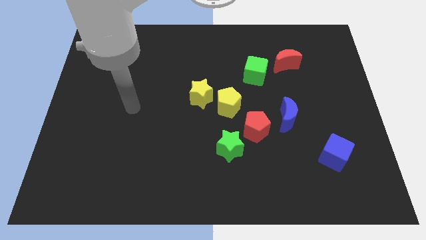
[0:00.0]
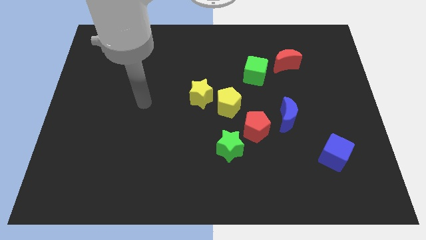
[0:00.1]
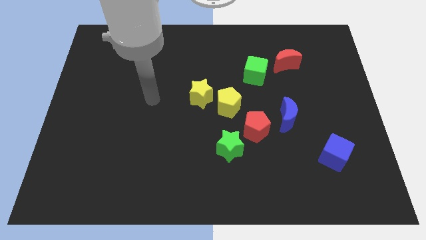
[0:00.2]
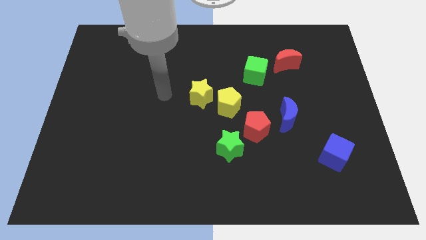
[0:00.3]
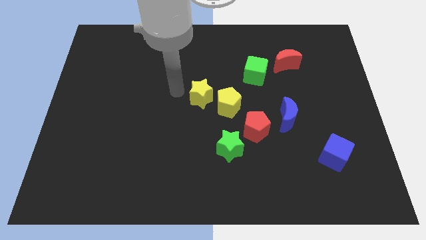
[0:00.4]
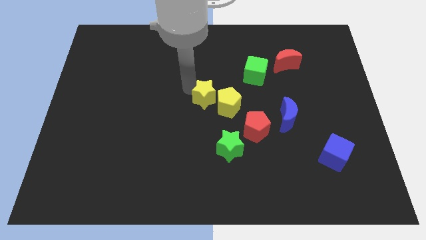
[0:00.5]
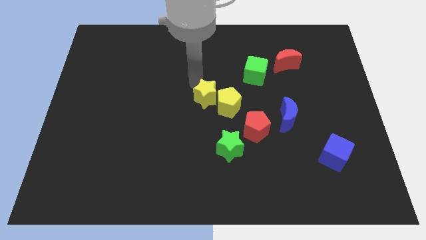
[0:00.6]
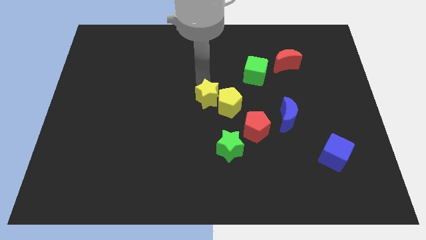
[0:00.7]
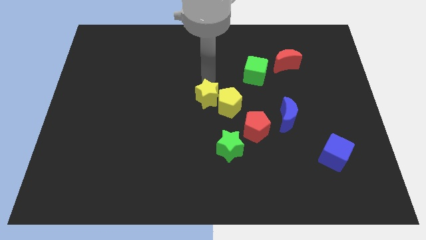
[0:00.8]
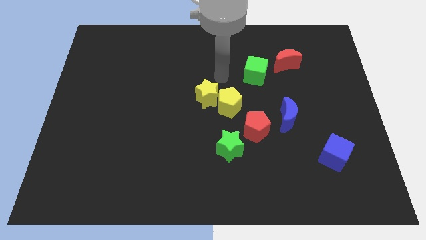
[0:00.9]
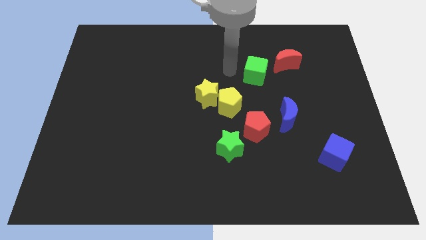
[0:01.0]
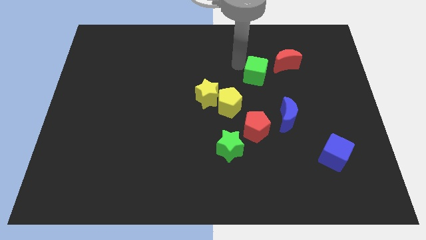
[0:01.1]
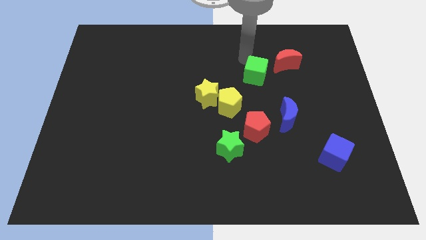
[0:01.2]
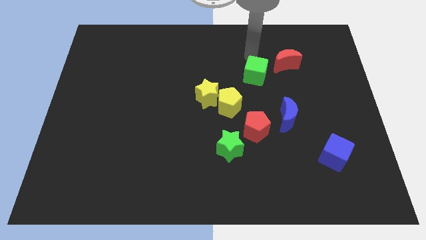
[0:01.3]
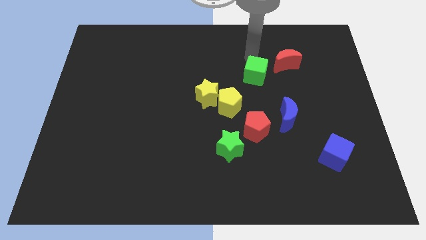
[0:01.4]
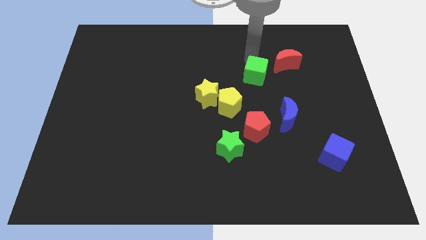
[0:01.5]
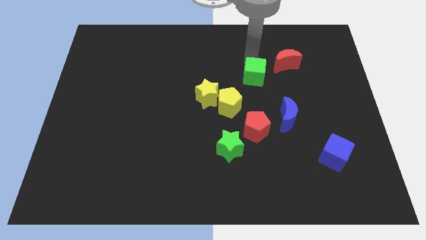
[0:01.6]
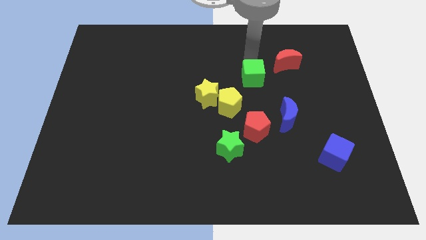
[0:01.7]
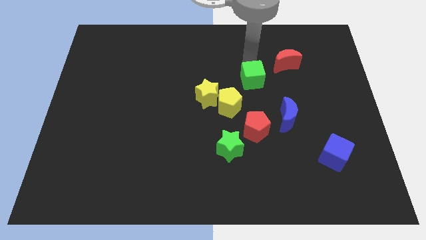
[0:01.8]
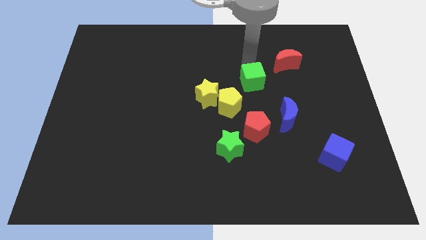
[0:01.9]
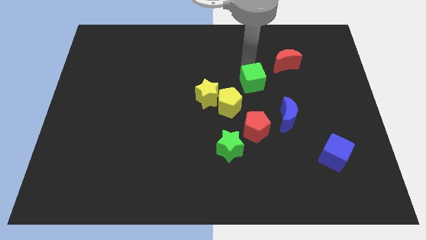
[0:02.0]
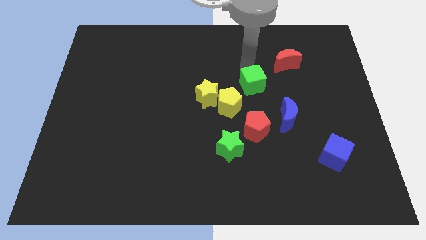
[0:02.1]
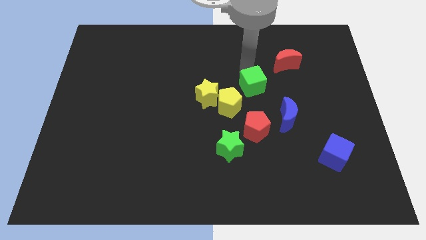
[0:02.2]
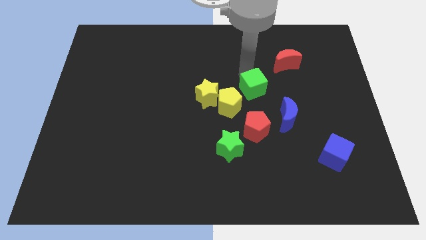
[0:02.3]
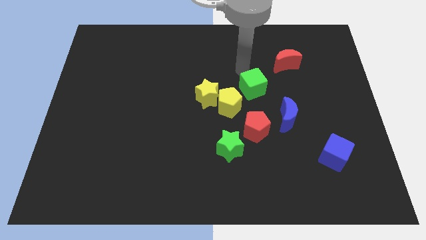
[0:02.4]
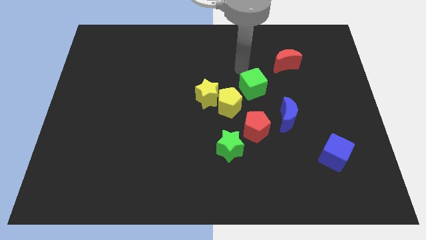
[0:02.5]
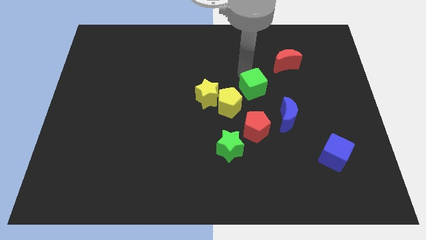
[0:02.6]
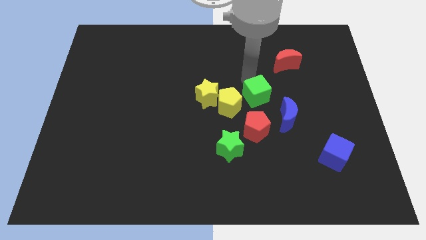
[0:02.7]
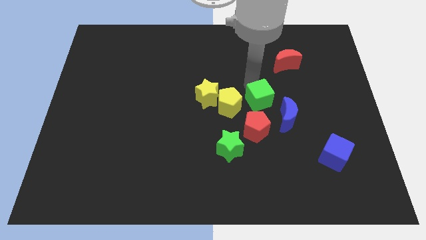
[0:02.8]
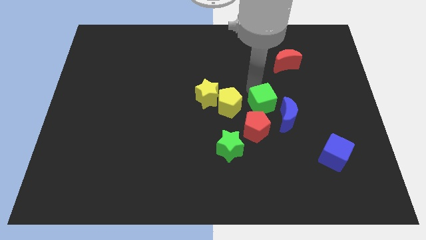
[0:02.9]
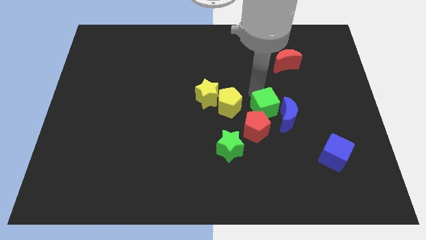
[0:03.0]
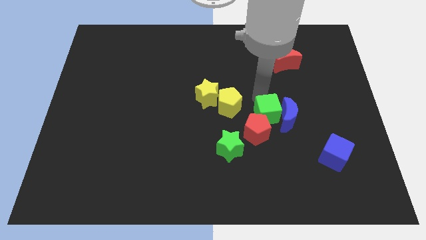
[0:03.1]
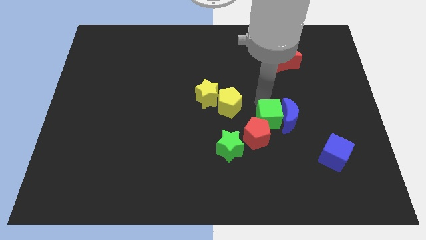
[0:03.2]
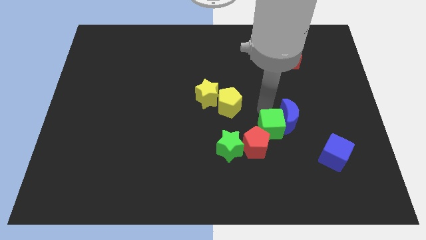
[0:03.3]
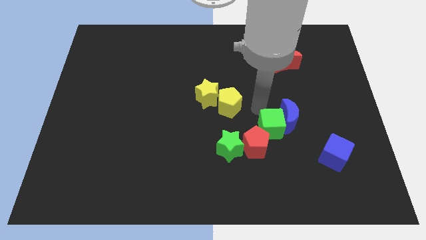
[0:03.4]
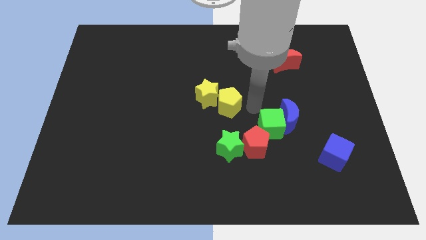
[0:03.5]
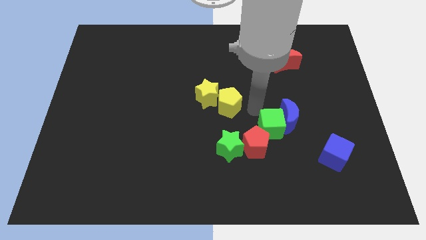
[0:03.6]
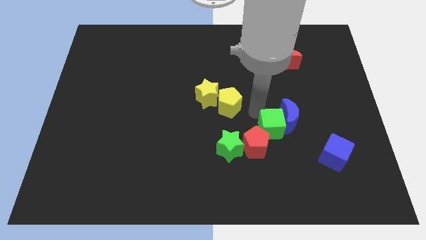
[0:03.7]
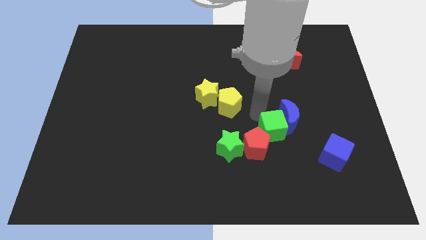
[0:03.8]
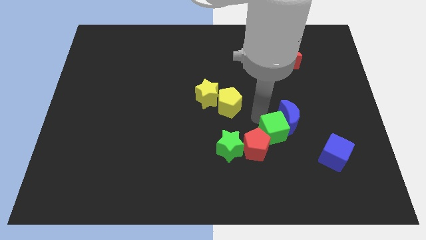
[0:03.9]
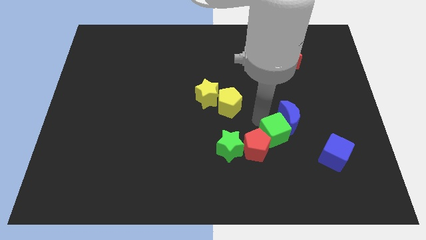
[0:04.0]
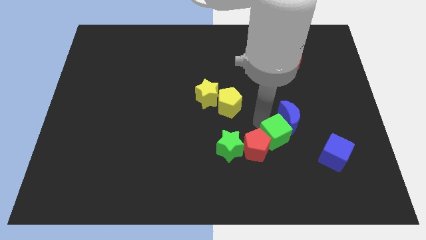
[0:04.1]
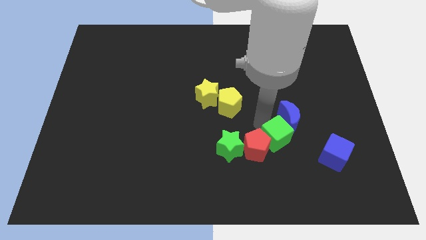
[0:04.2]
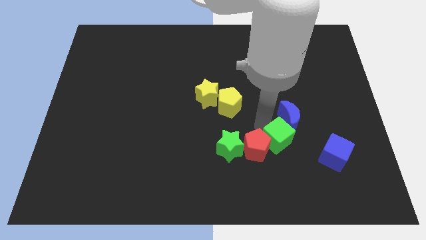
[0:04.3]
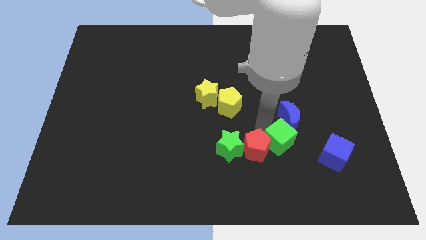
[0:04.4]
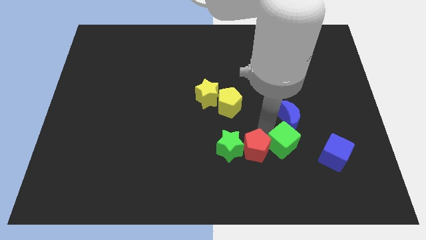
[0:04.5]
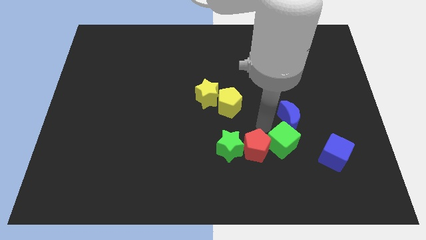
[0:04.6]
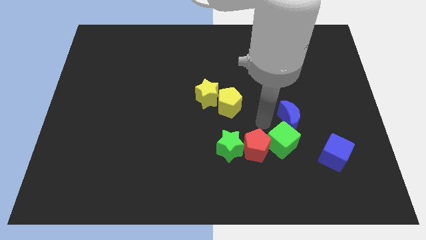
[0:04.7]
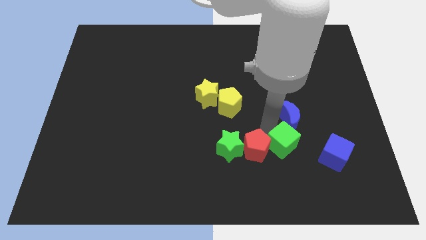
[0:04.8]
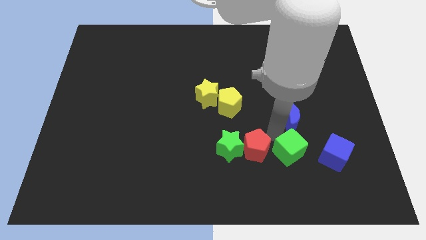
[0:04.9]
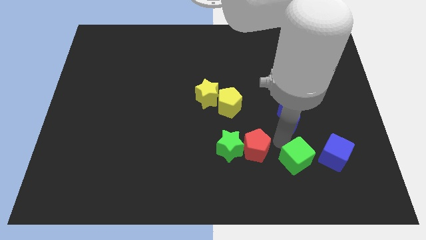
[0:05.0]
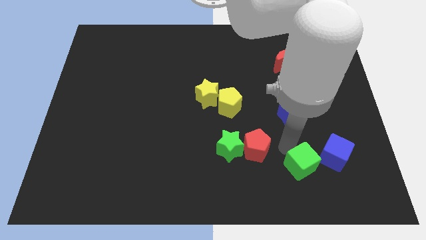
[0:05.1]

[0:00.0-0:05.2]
put the green cube to the bottom left of the blue cube

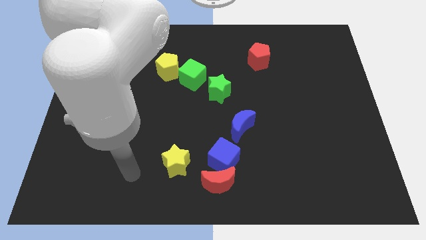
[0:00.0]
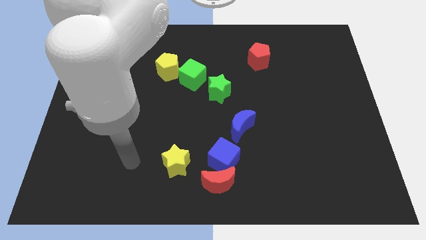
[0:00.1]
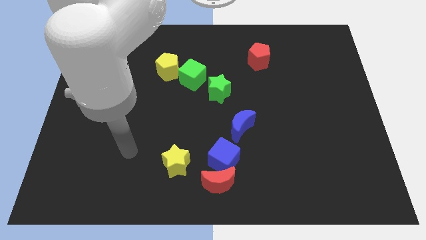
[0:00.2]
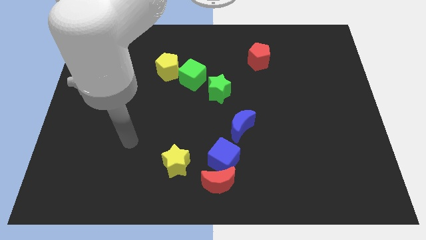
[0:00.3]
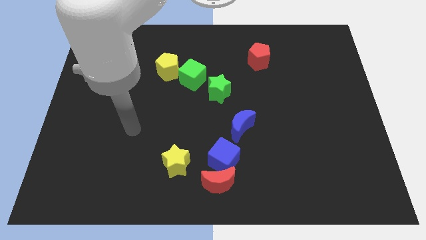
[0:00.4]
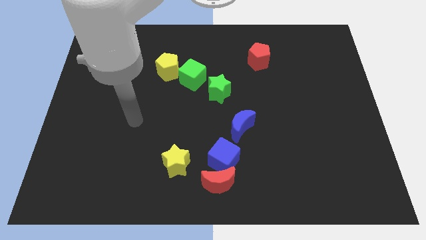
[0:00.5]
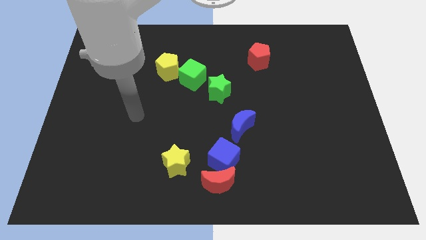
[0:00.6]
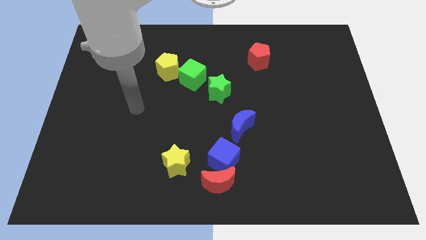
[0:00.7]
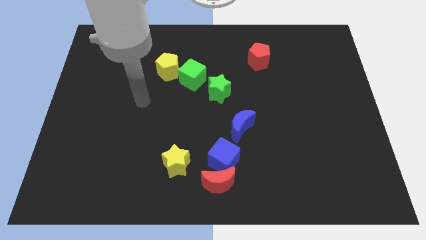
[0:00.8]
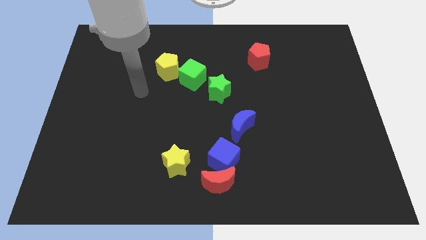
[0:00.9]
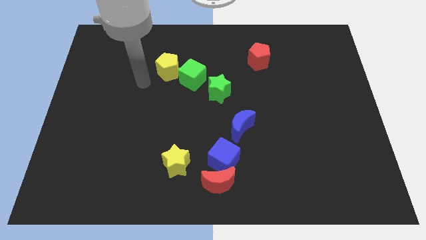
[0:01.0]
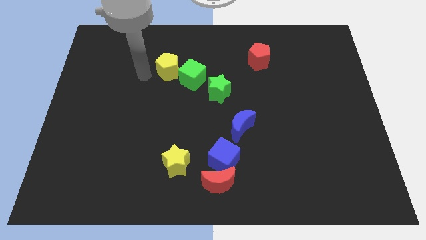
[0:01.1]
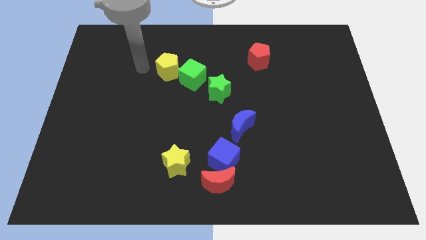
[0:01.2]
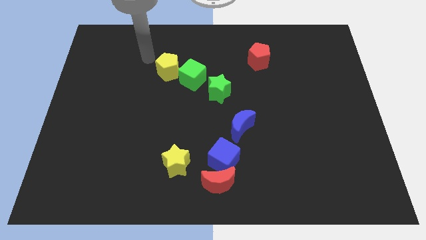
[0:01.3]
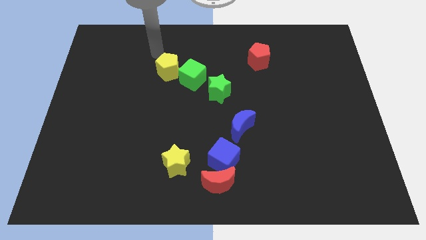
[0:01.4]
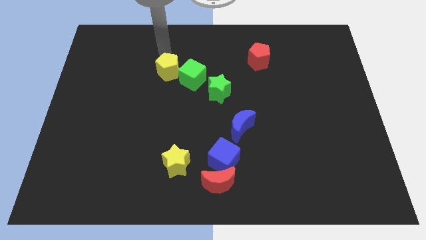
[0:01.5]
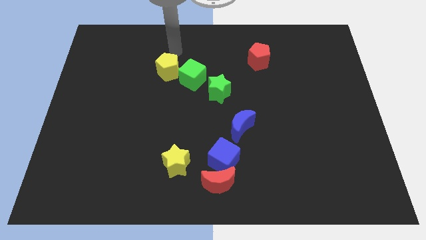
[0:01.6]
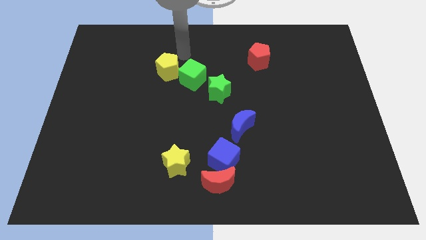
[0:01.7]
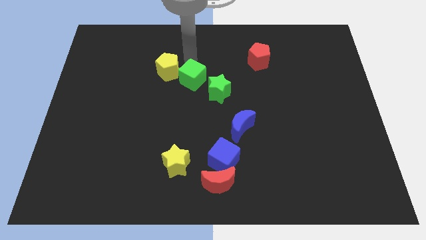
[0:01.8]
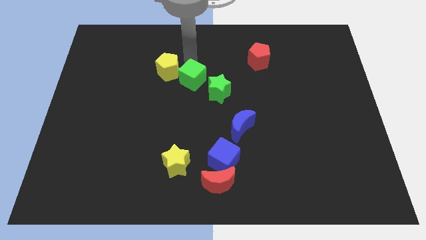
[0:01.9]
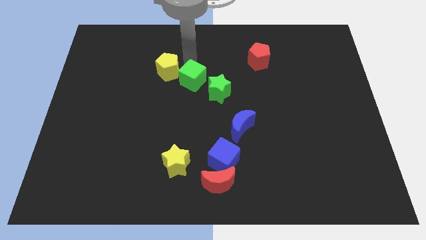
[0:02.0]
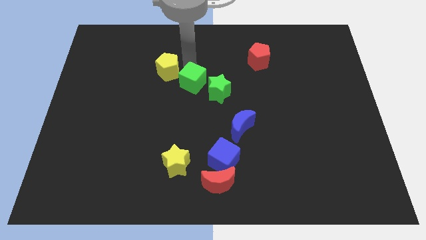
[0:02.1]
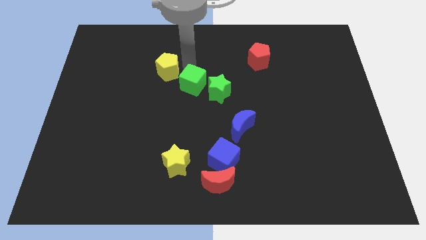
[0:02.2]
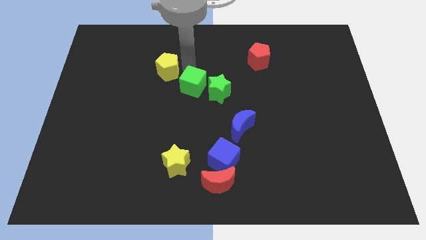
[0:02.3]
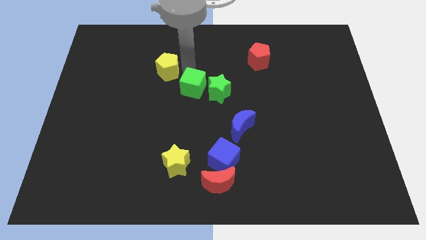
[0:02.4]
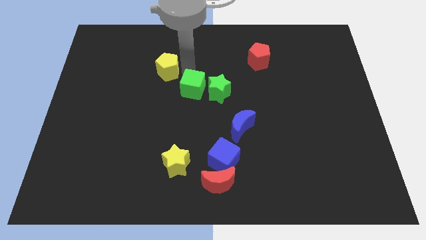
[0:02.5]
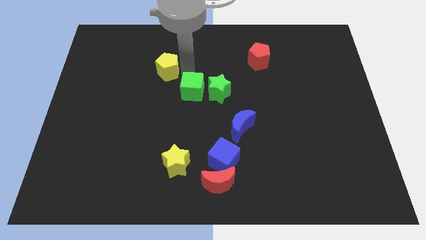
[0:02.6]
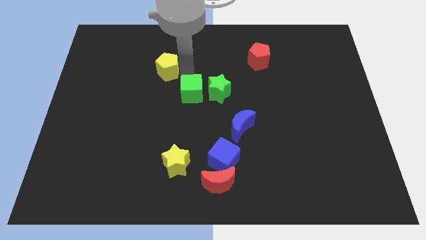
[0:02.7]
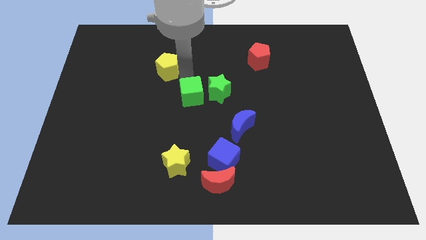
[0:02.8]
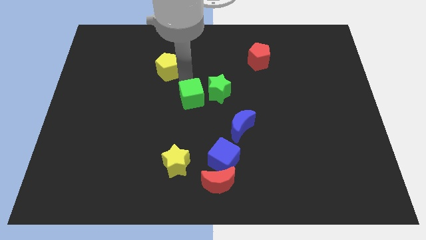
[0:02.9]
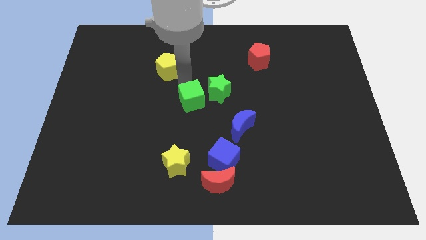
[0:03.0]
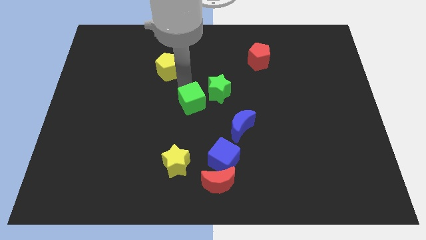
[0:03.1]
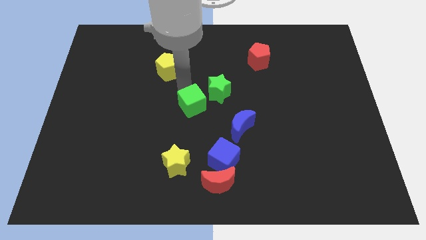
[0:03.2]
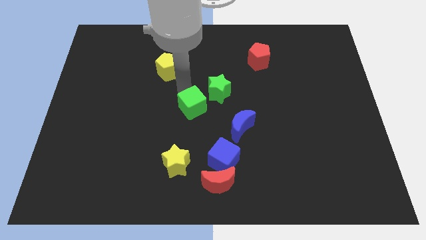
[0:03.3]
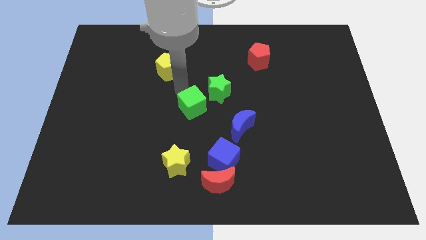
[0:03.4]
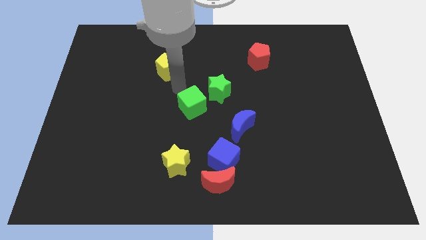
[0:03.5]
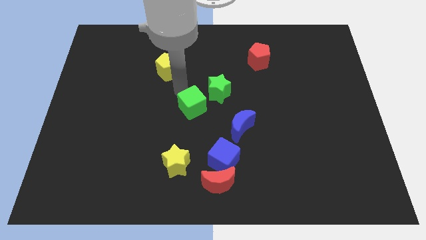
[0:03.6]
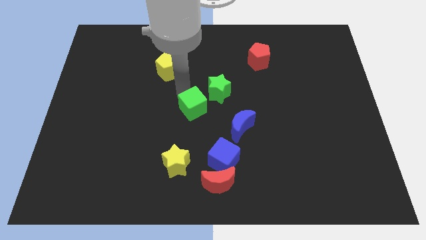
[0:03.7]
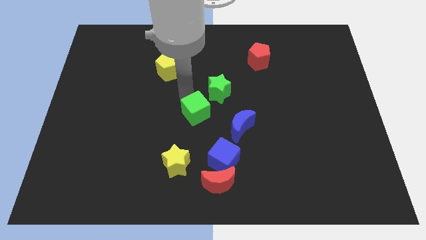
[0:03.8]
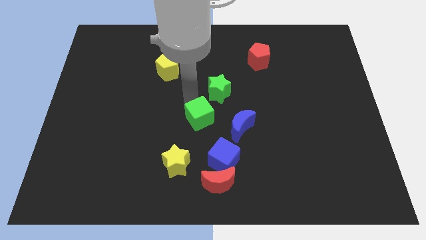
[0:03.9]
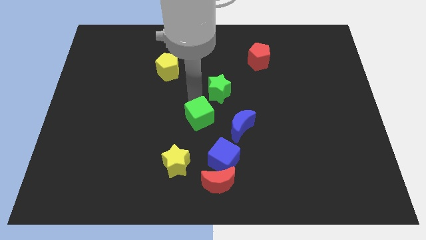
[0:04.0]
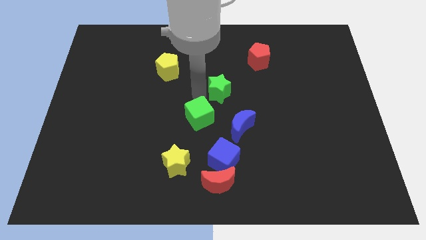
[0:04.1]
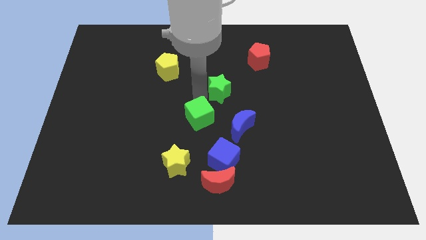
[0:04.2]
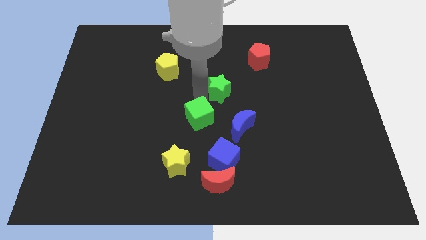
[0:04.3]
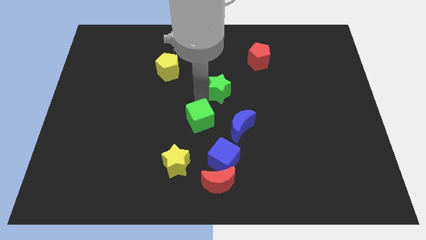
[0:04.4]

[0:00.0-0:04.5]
slide the green cube to the top left side of the blue cube
